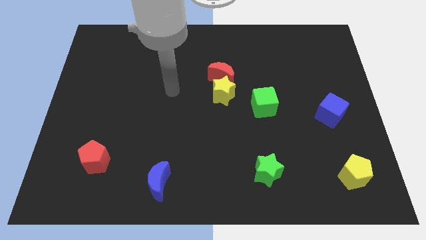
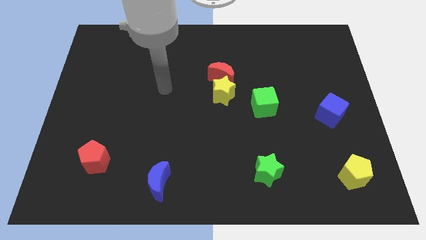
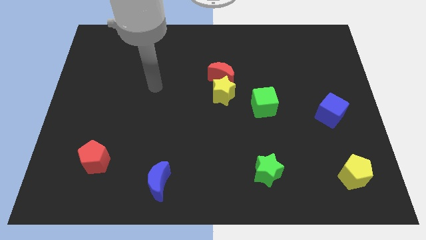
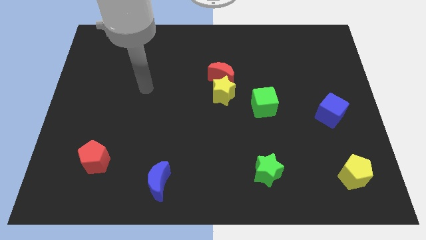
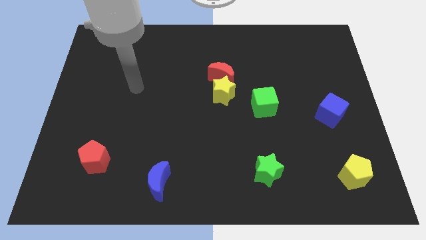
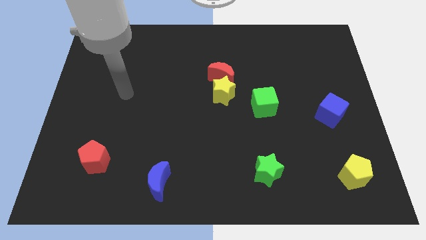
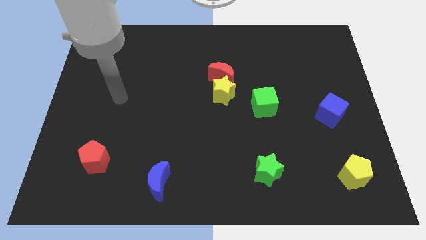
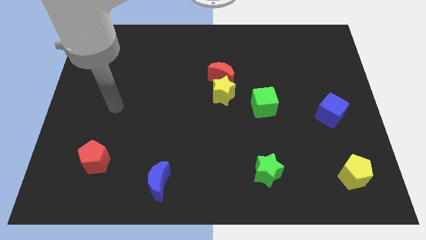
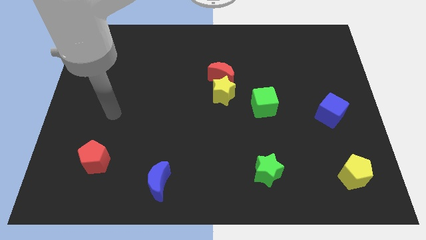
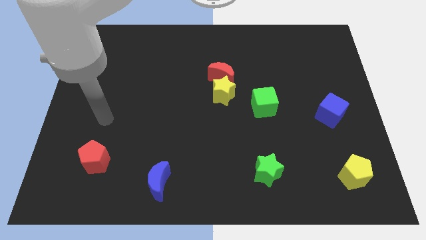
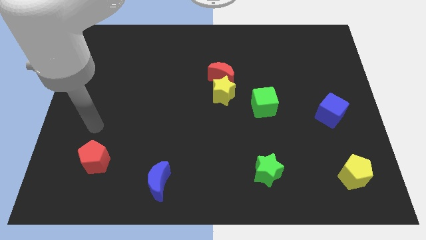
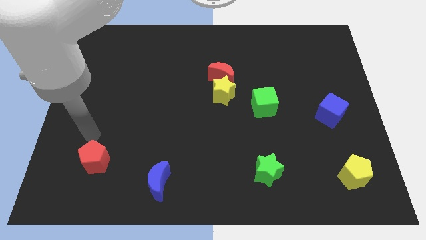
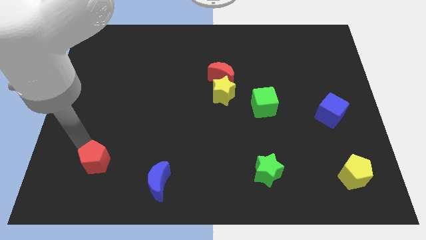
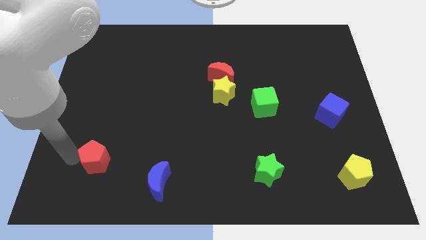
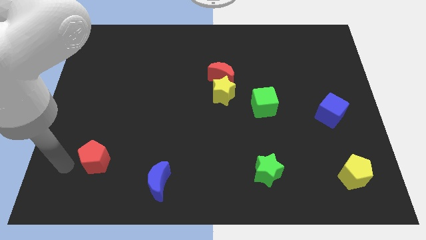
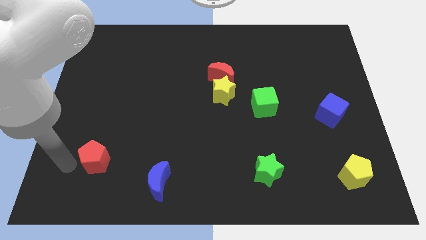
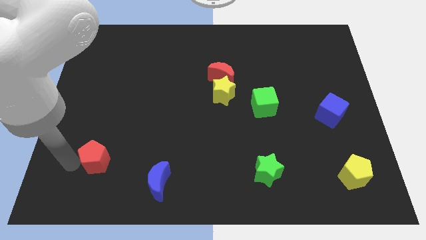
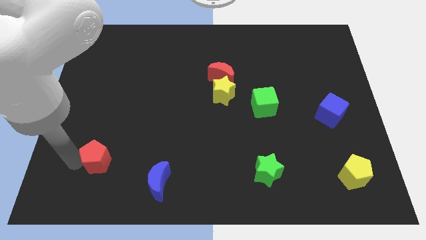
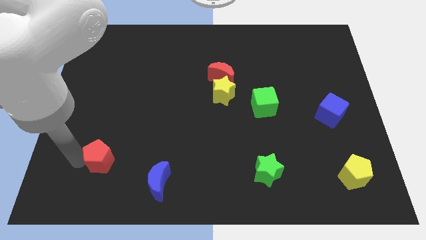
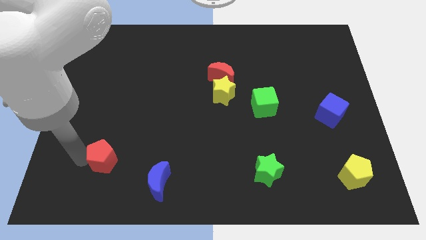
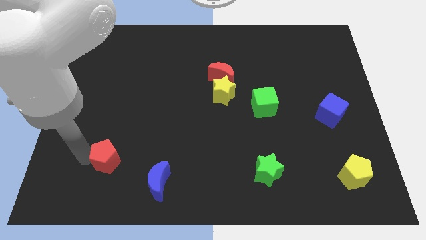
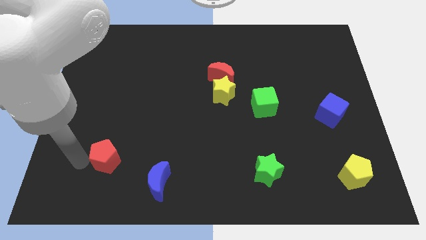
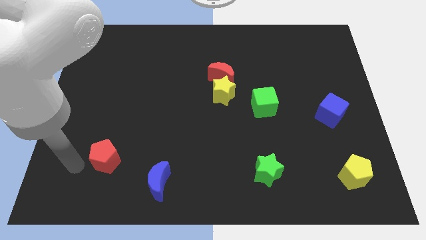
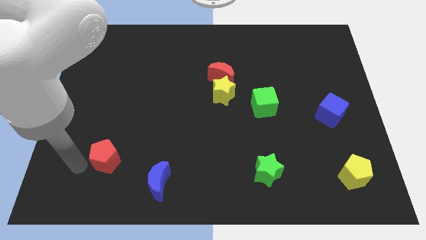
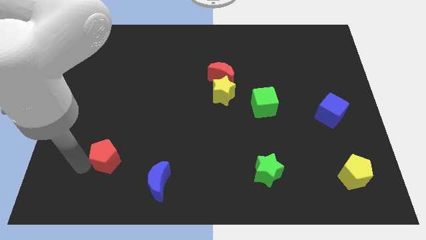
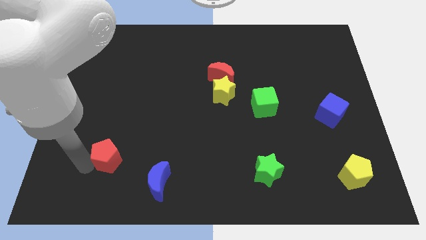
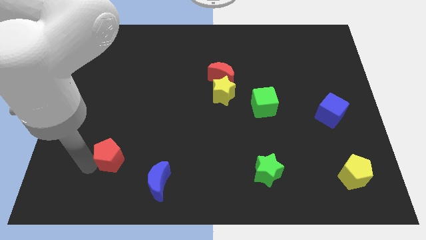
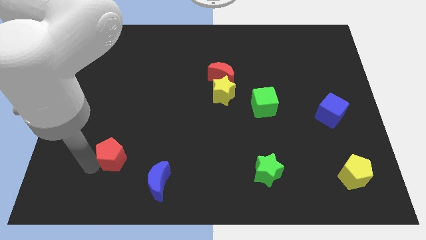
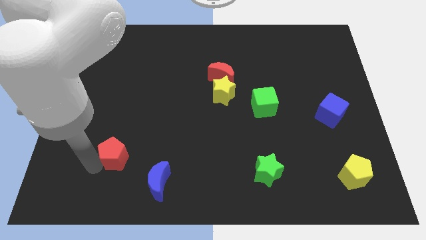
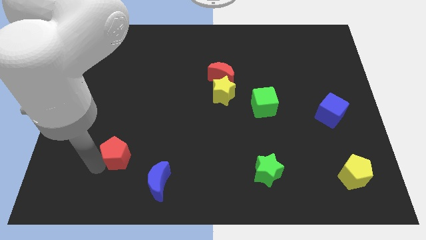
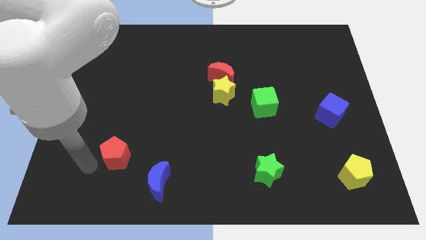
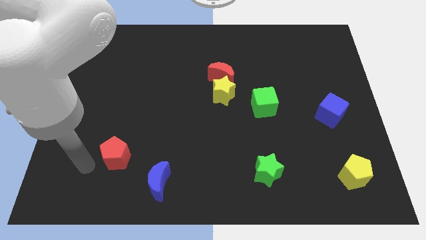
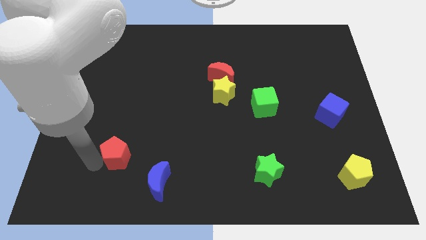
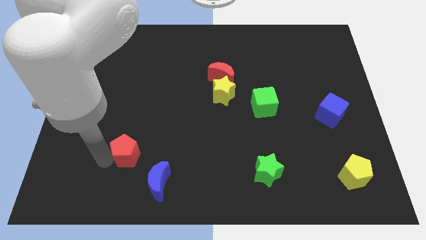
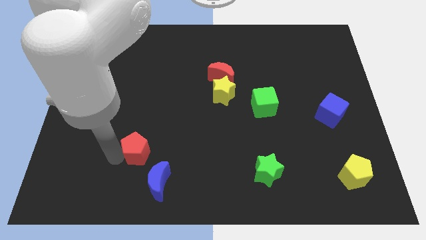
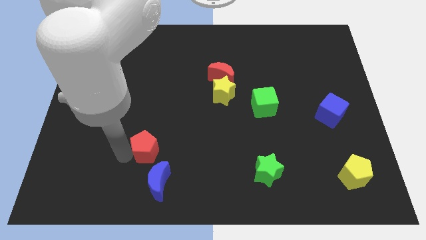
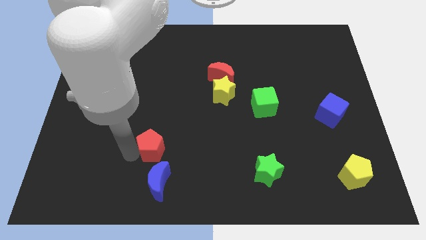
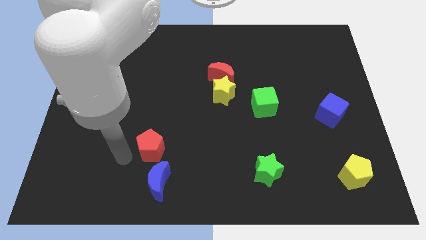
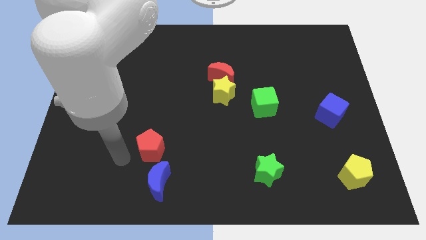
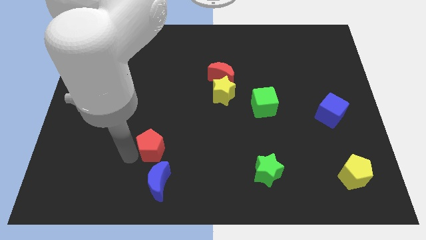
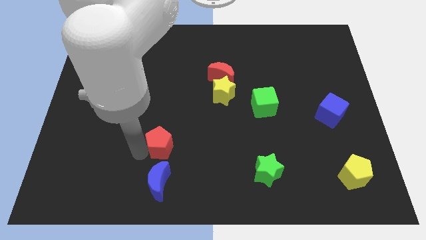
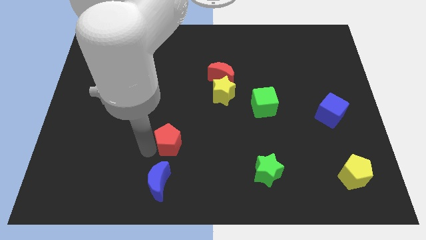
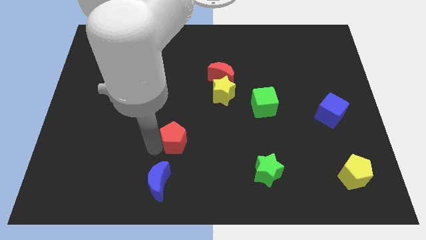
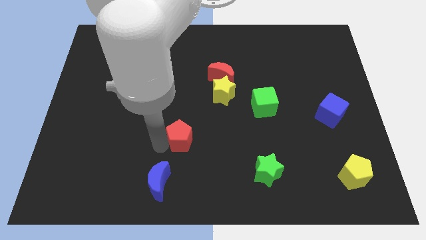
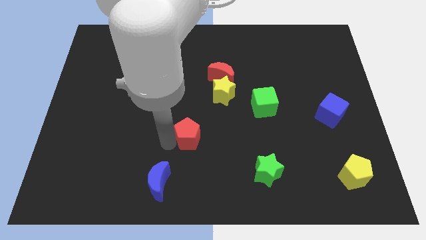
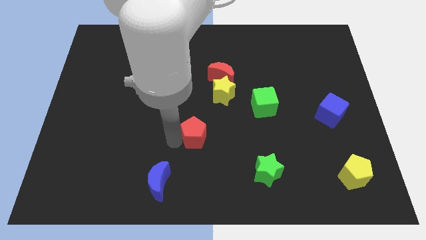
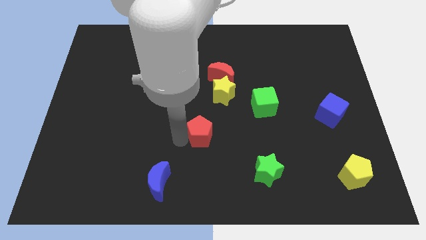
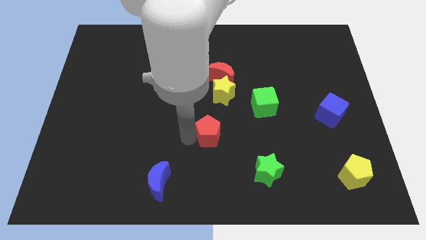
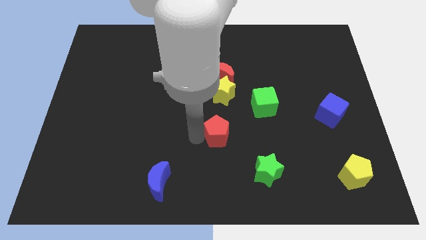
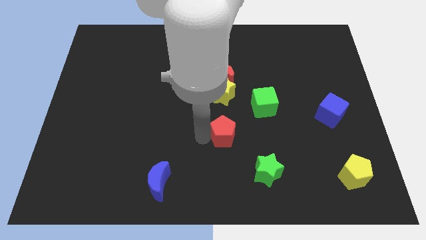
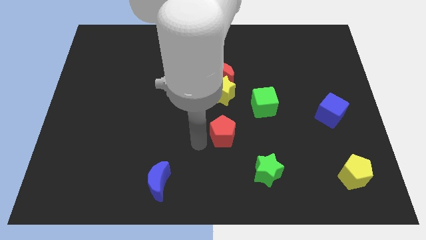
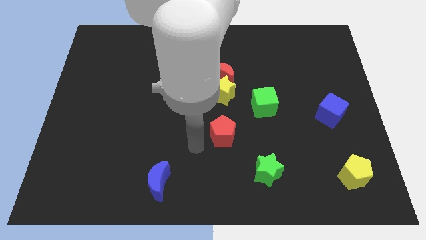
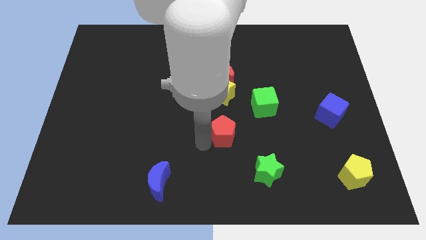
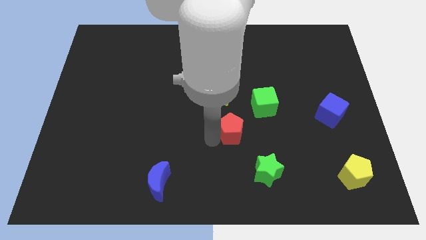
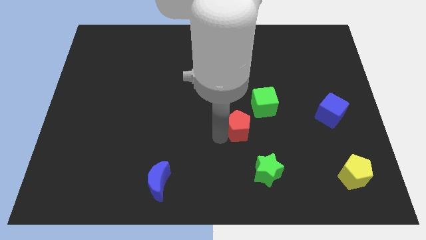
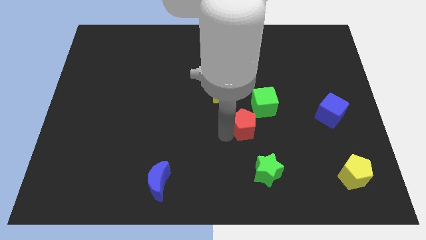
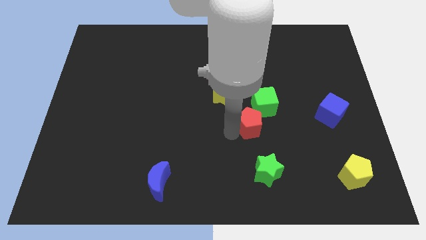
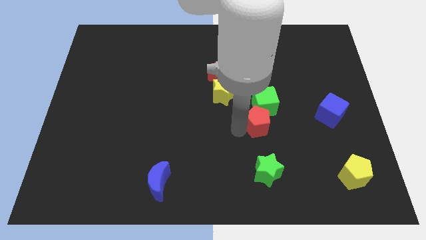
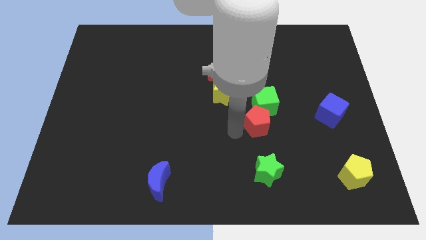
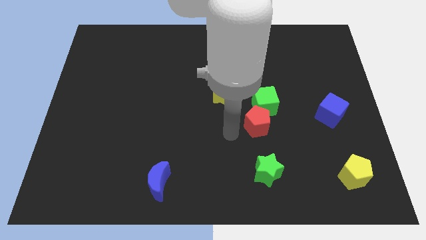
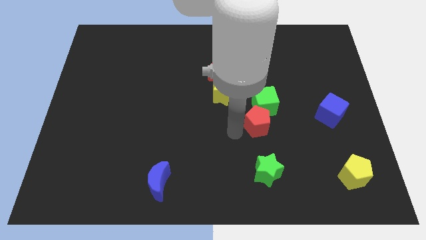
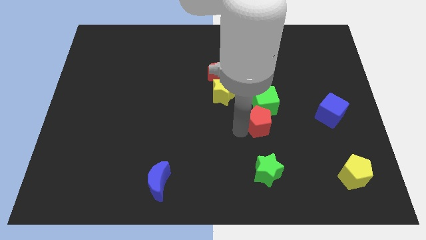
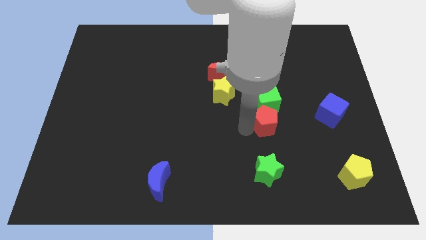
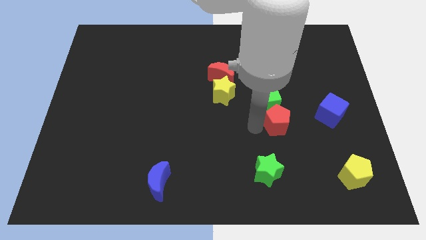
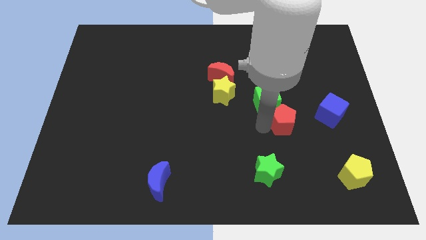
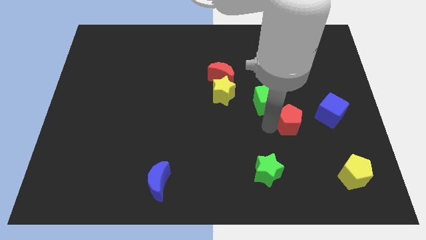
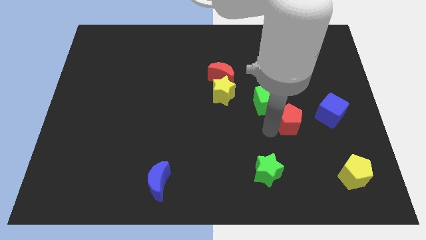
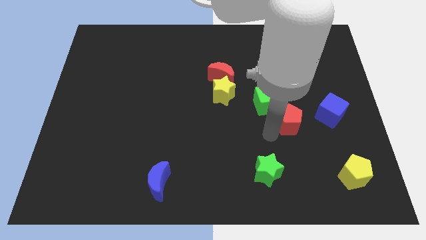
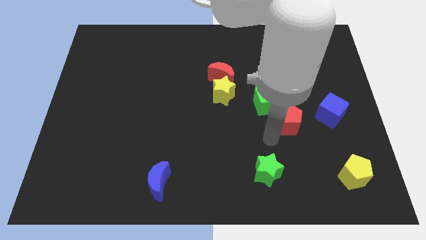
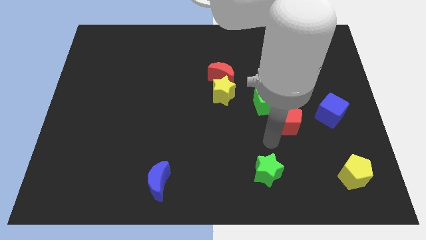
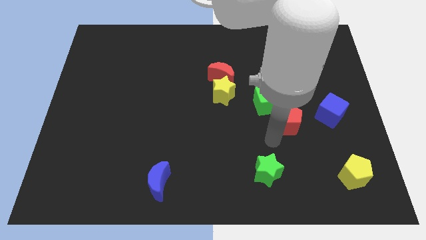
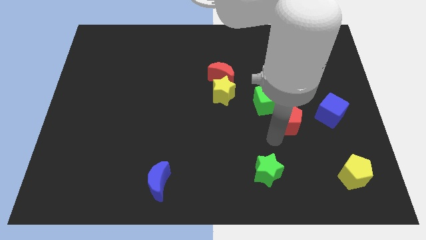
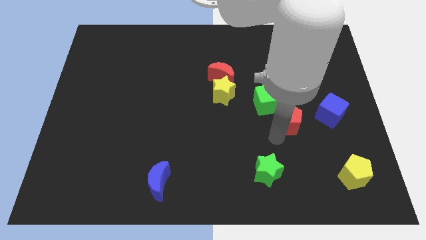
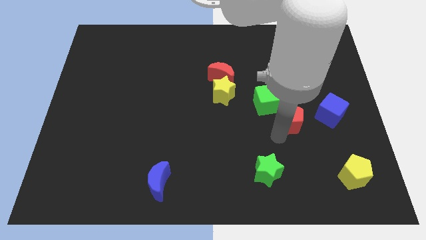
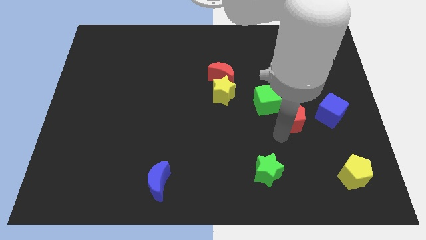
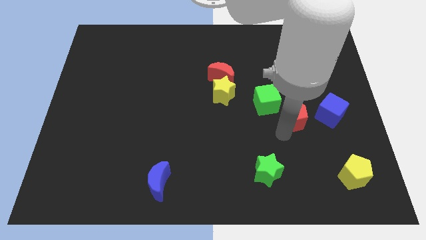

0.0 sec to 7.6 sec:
move the red pentagon right of the green cube
